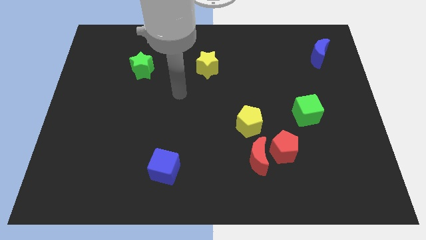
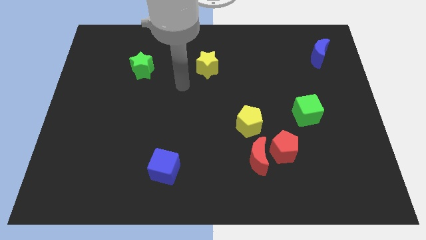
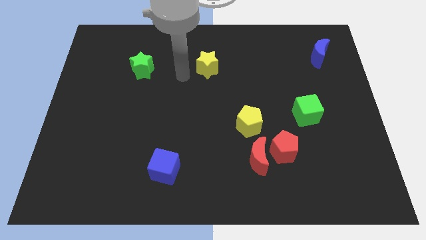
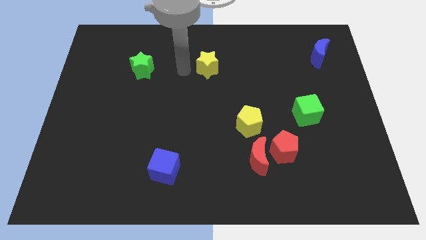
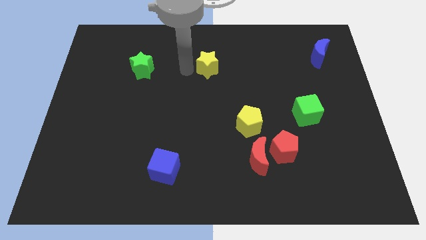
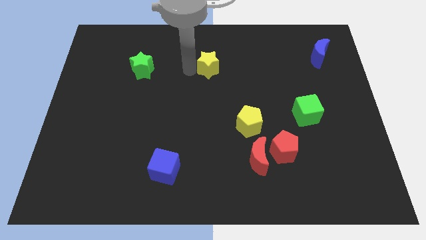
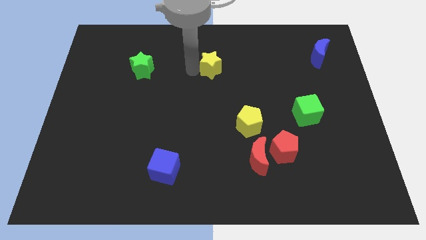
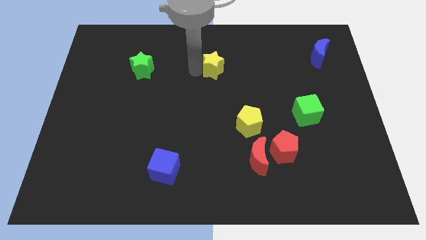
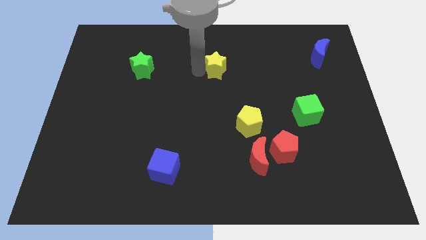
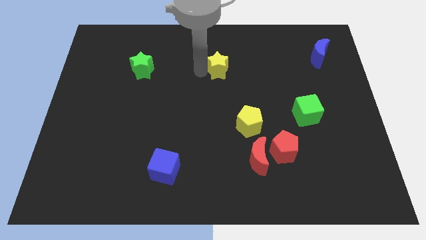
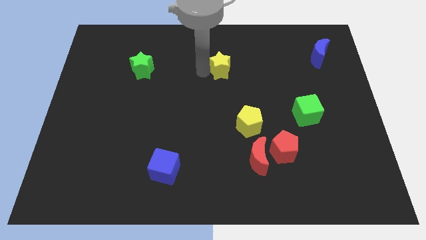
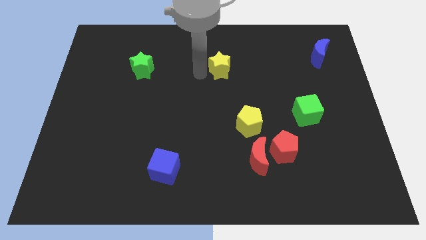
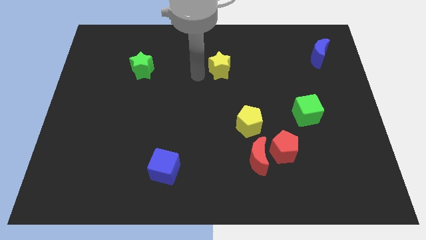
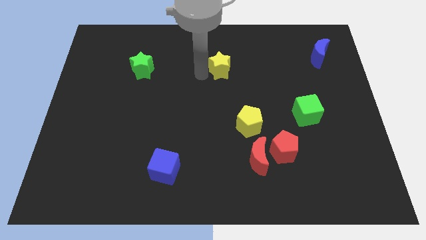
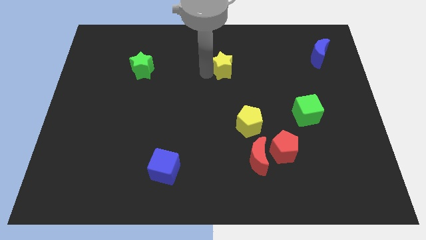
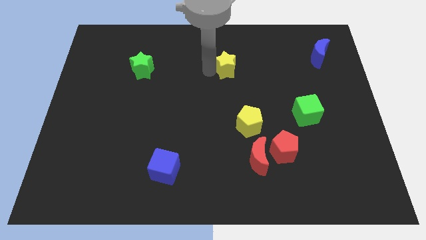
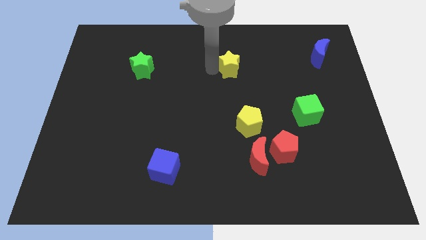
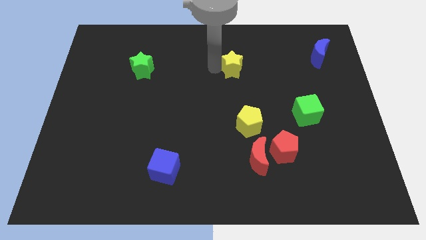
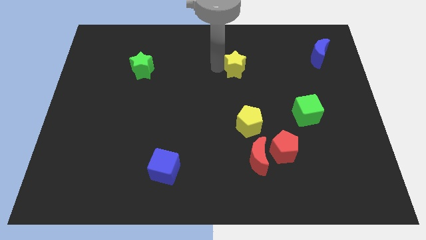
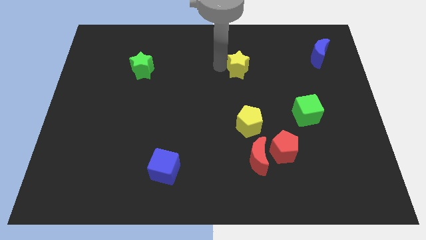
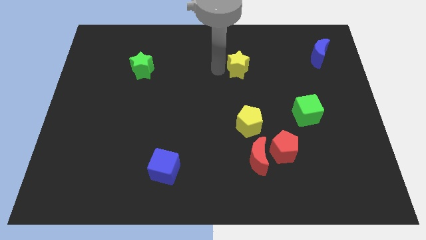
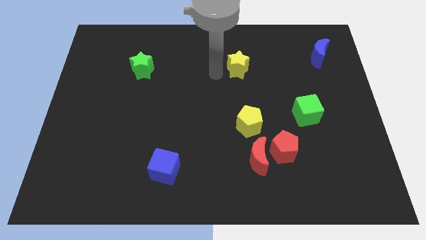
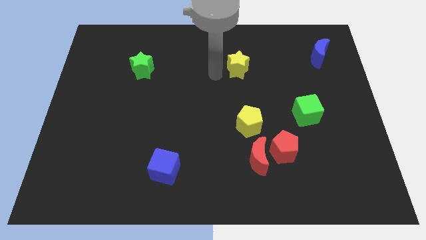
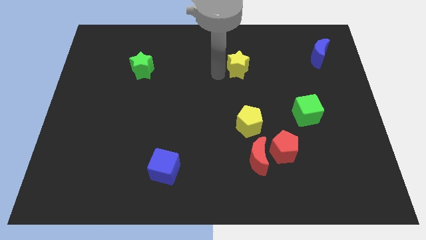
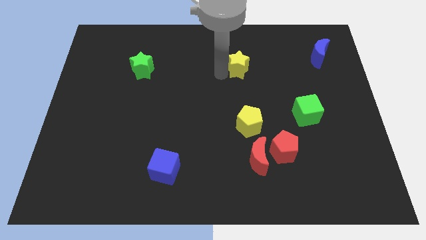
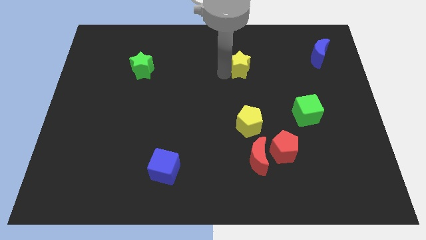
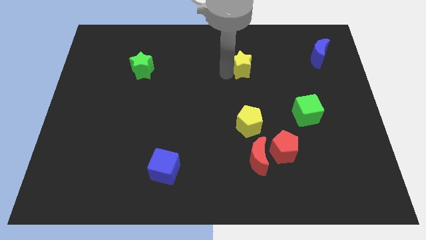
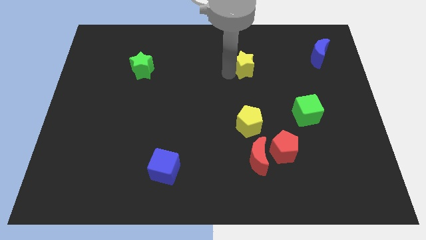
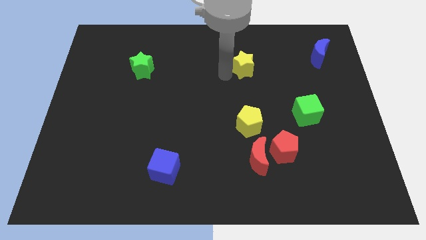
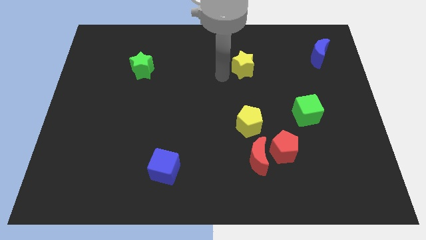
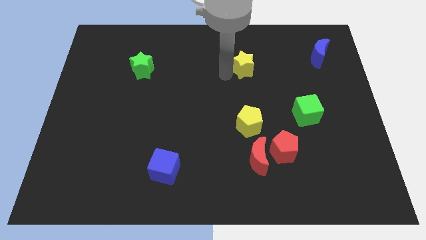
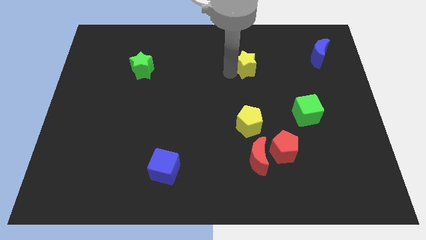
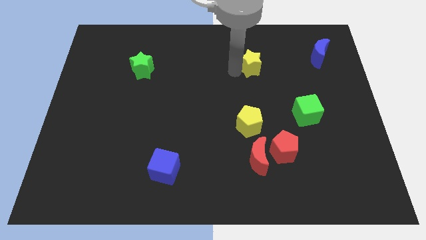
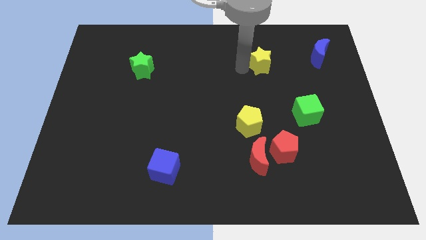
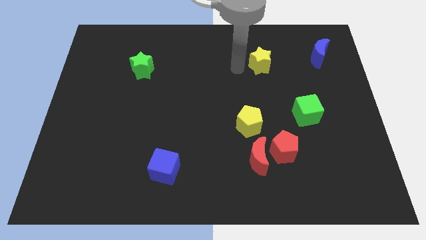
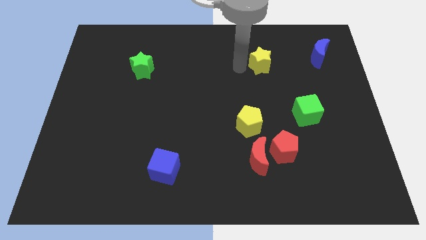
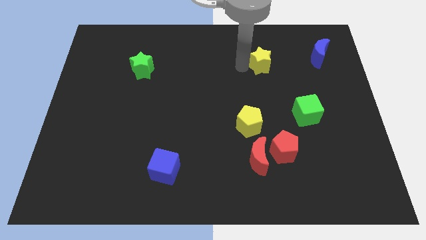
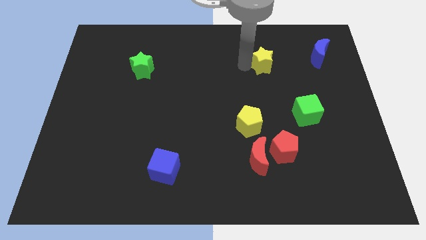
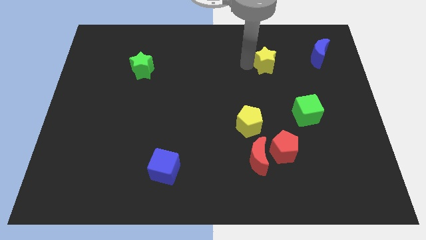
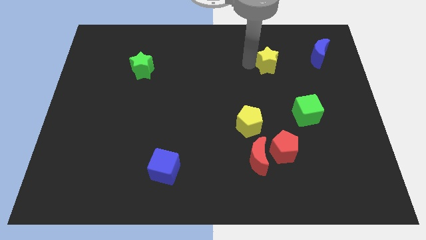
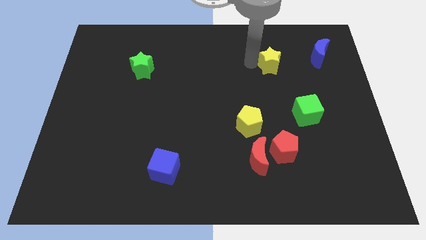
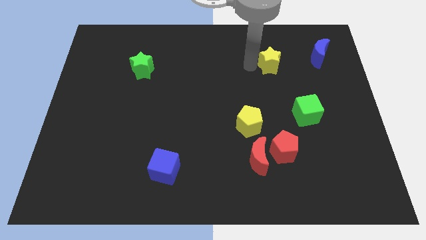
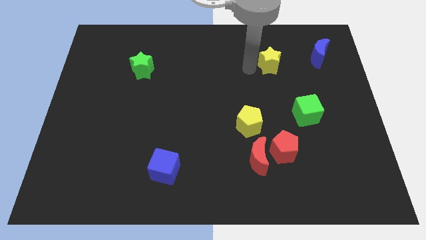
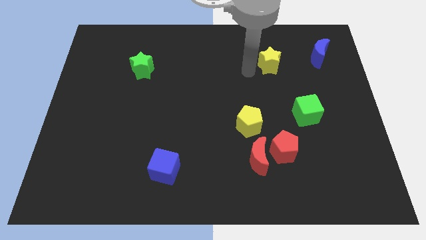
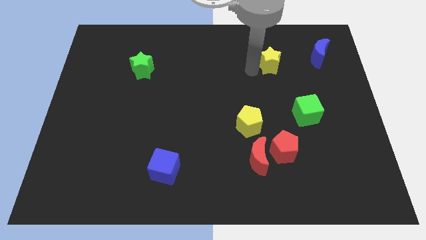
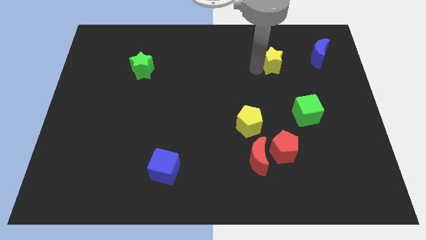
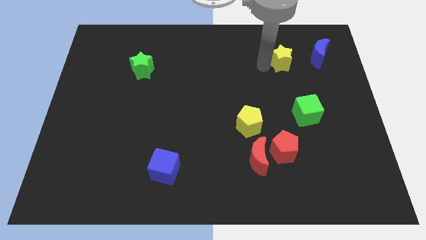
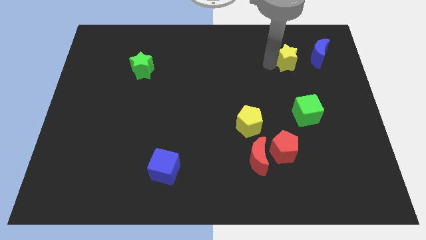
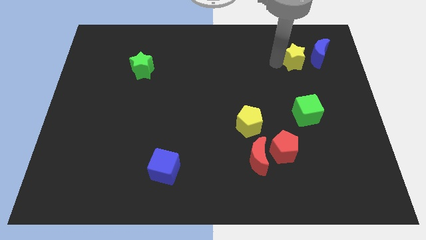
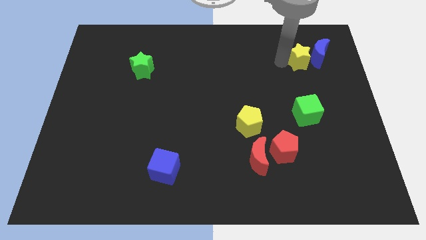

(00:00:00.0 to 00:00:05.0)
move the yellow star towards the blue moon

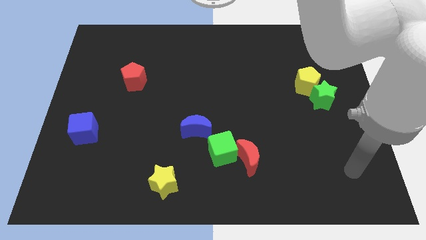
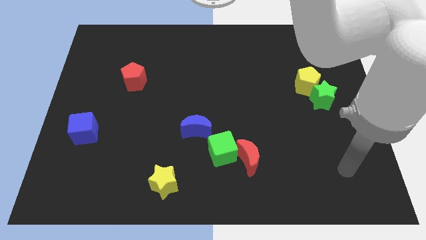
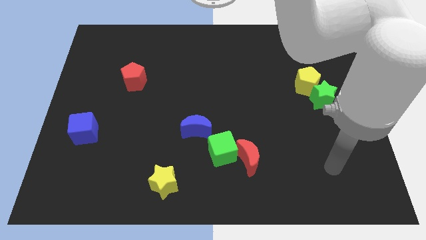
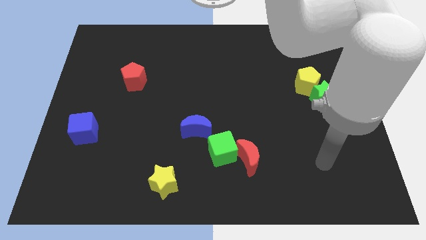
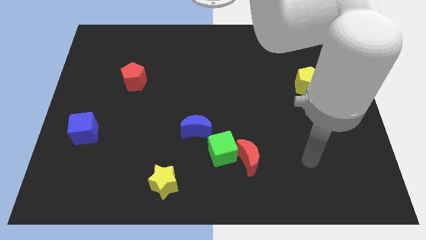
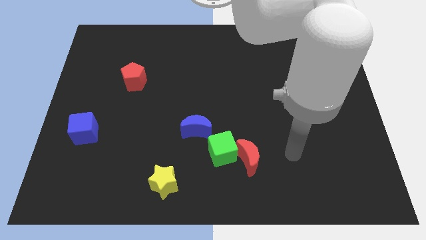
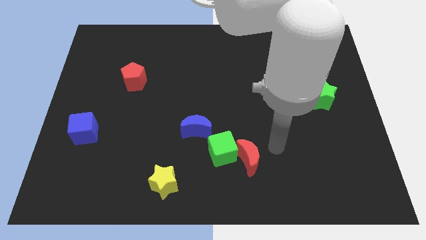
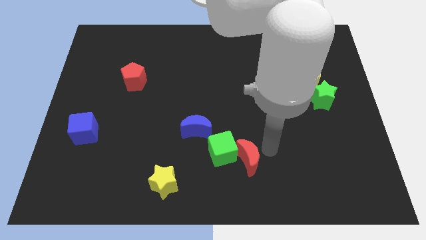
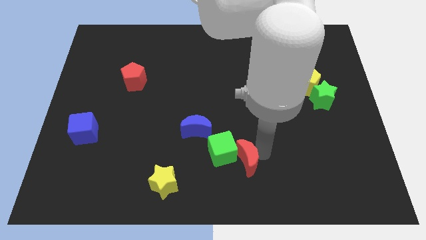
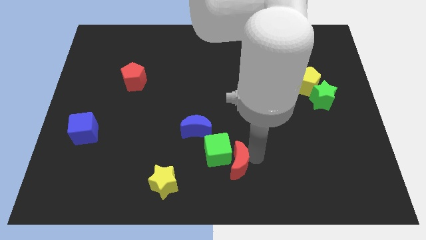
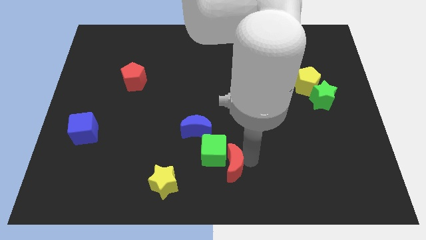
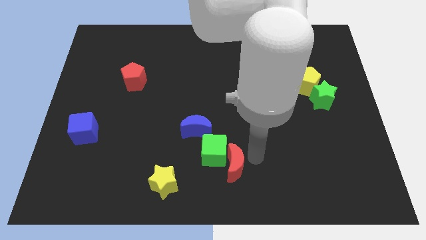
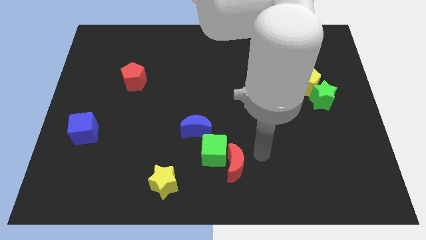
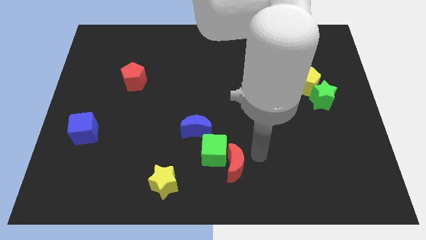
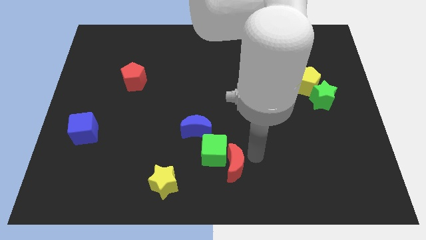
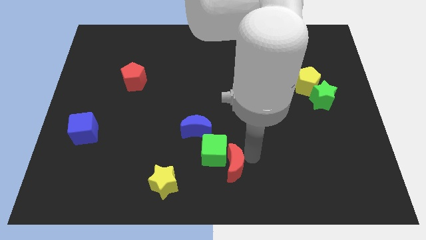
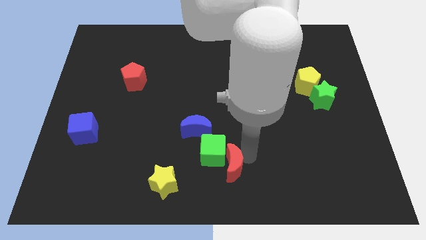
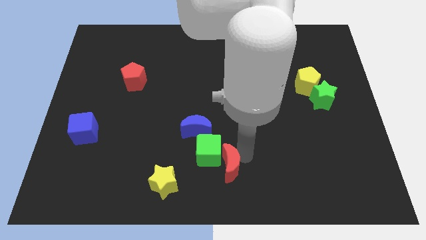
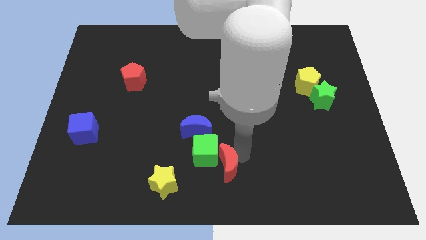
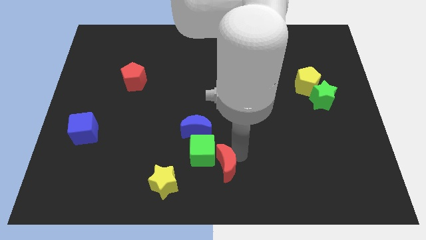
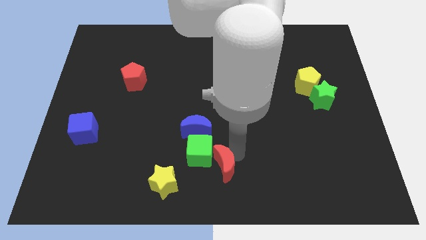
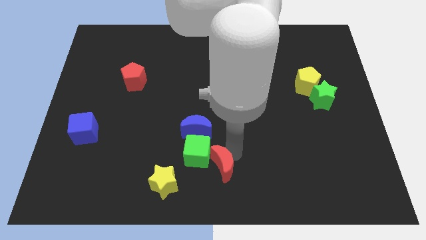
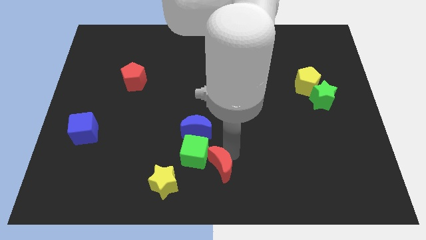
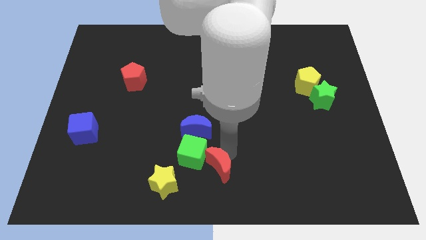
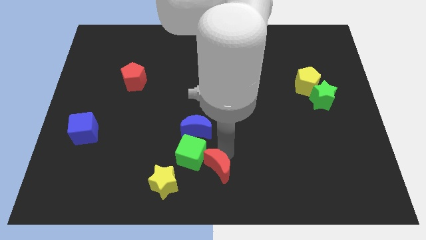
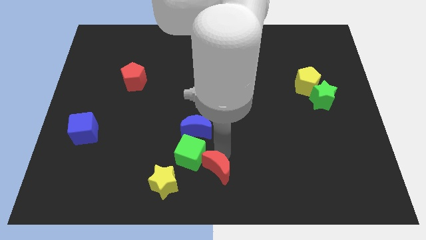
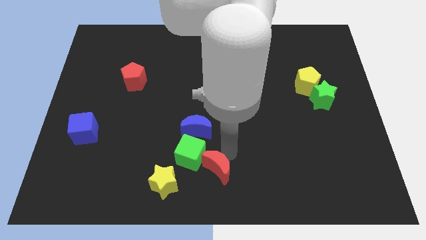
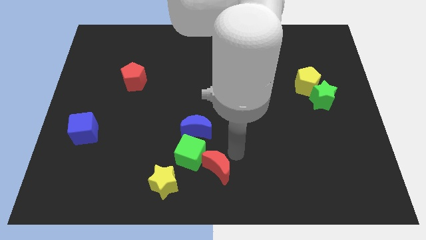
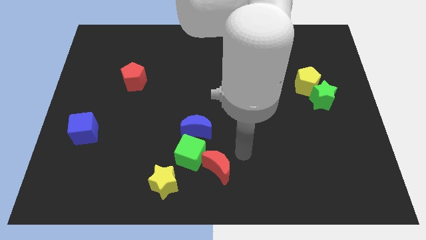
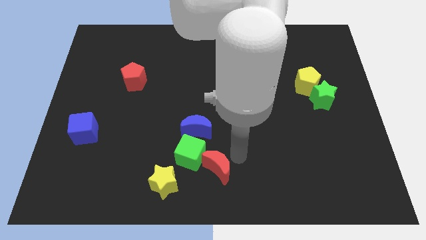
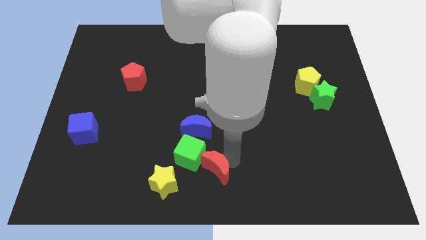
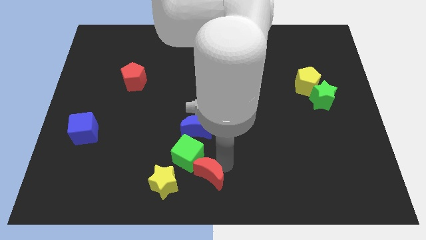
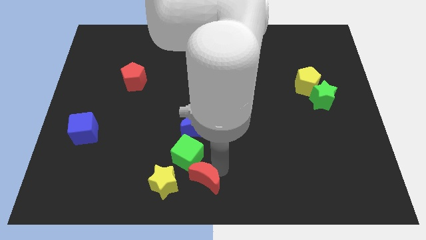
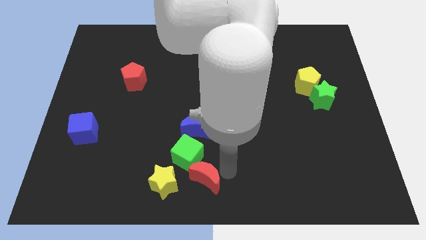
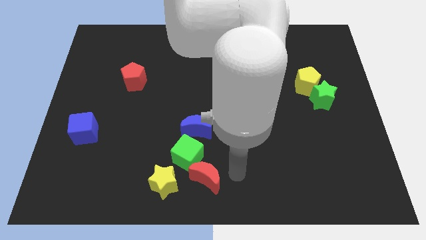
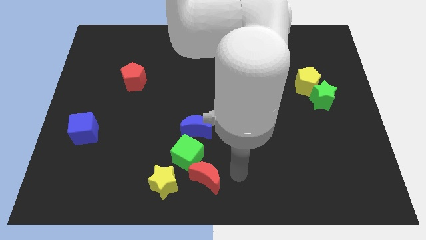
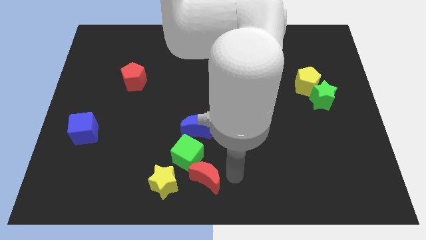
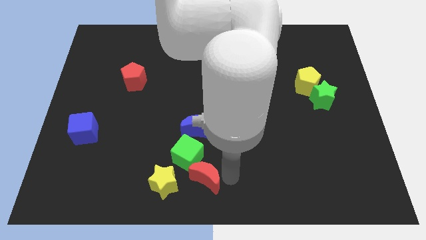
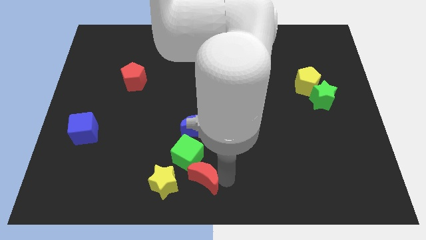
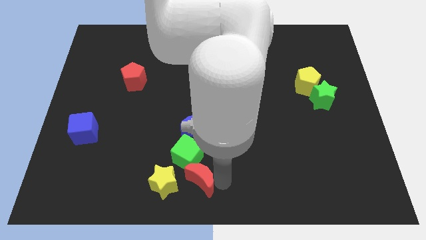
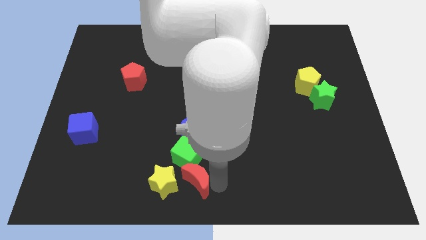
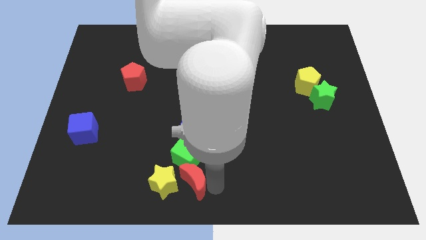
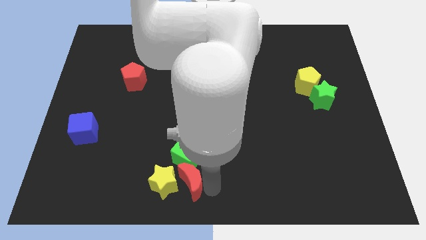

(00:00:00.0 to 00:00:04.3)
move the red moon towards the yellow star
